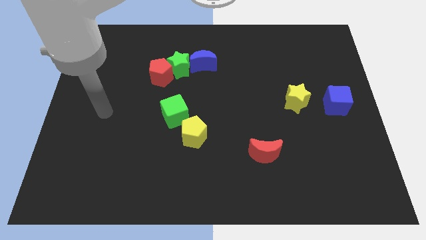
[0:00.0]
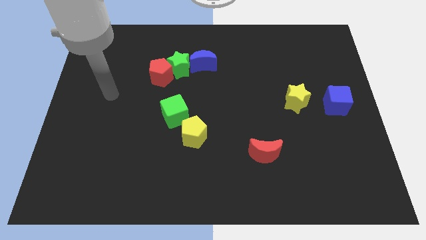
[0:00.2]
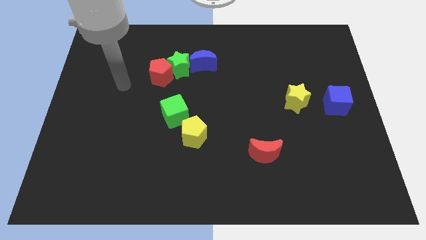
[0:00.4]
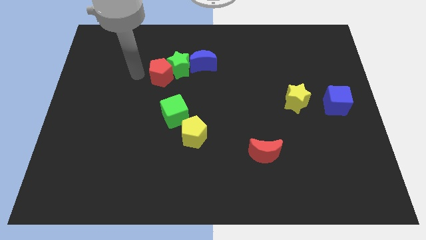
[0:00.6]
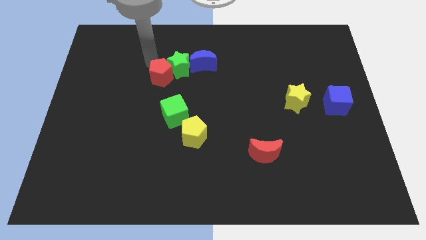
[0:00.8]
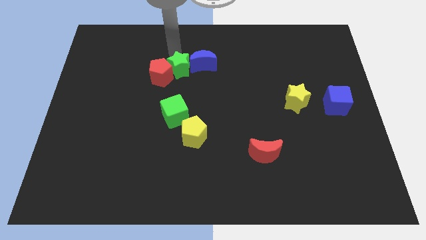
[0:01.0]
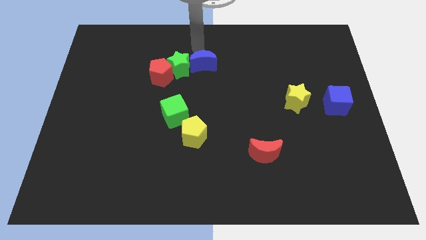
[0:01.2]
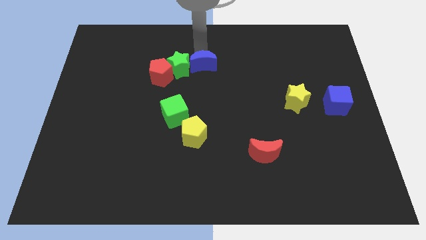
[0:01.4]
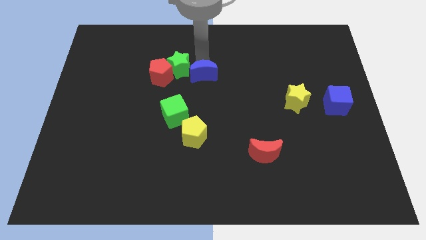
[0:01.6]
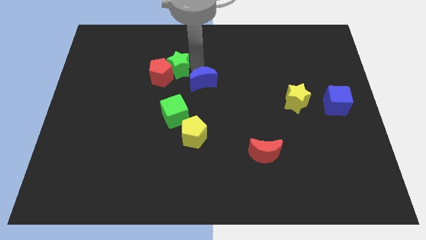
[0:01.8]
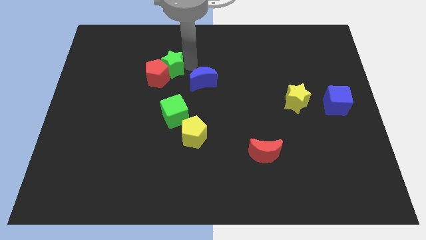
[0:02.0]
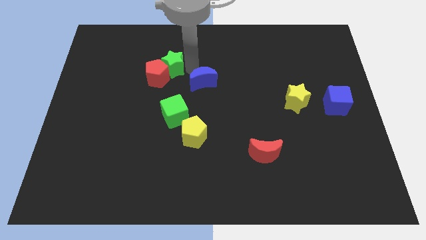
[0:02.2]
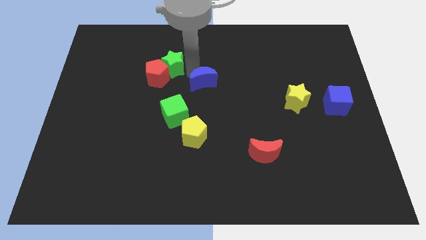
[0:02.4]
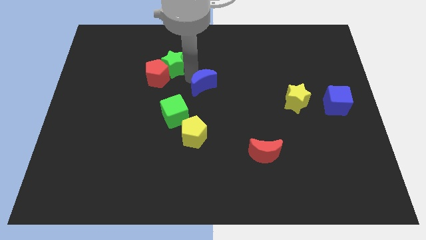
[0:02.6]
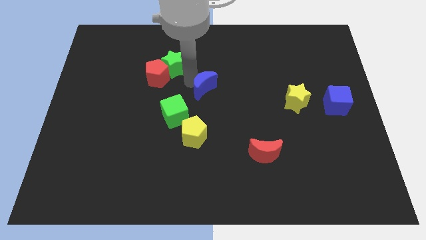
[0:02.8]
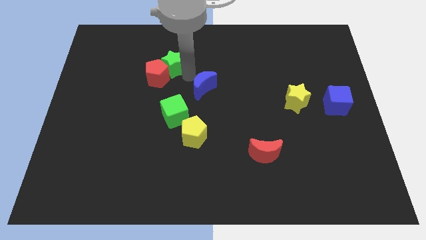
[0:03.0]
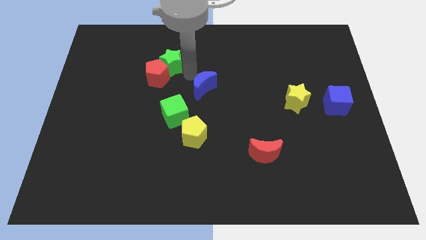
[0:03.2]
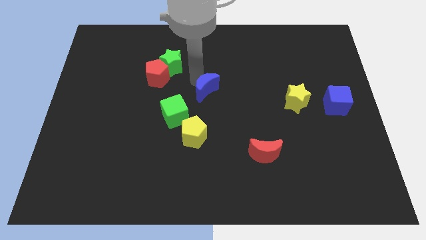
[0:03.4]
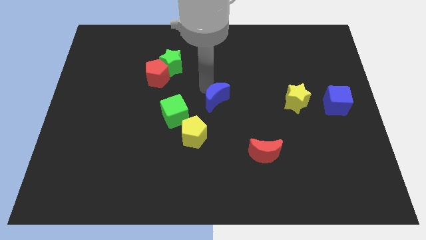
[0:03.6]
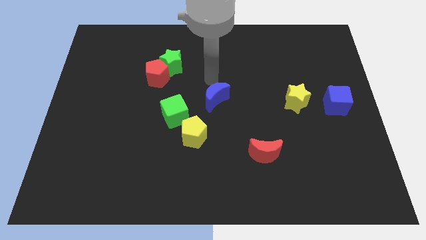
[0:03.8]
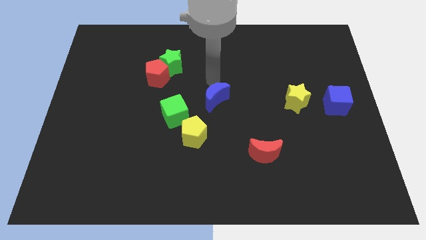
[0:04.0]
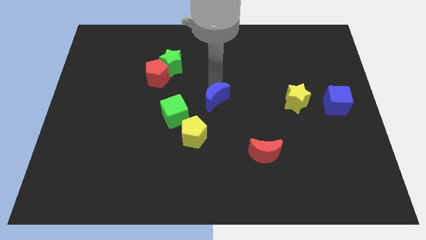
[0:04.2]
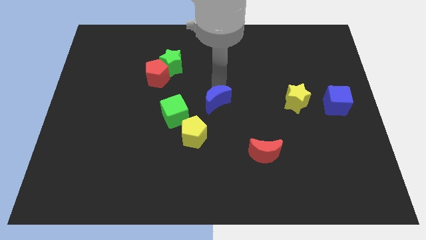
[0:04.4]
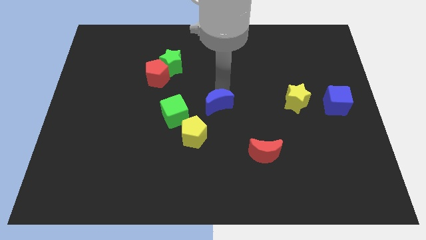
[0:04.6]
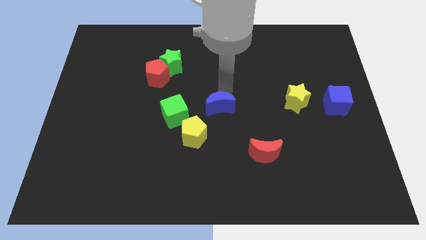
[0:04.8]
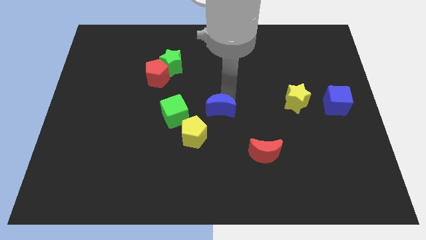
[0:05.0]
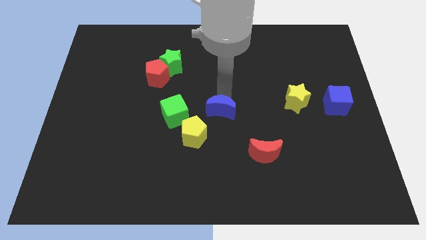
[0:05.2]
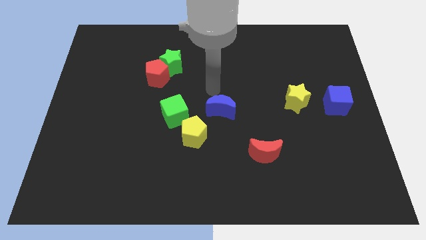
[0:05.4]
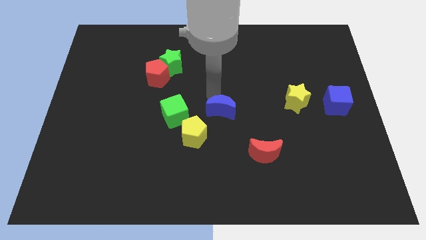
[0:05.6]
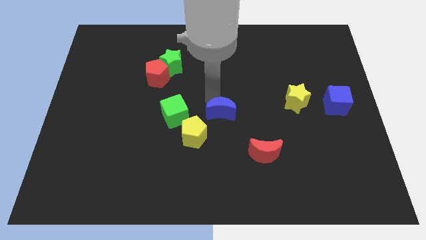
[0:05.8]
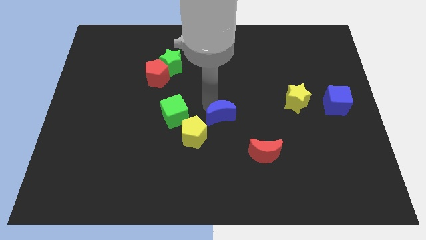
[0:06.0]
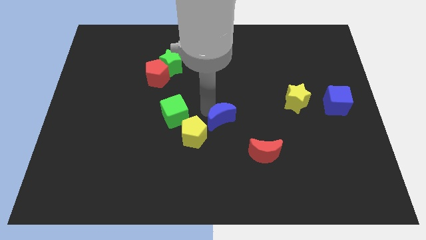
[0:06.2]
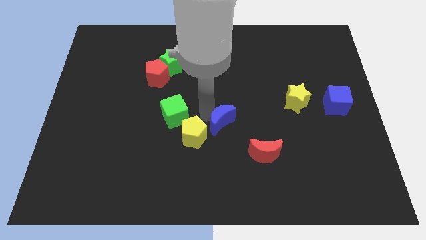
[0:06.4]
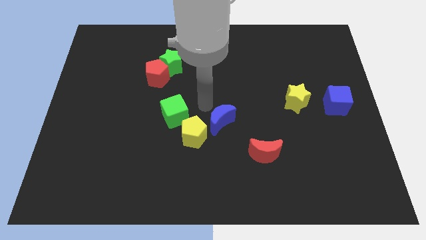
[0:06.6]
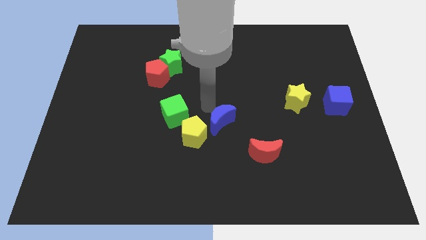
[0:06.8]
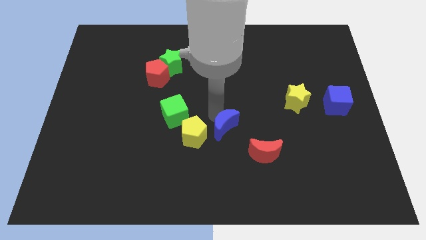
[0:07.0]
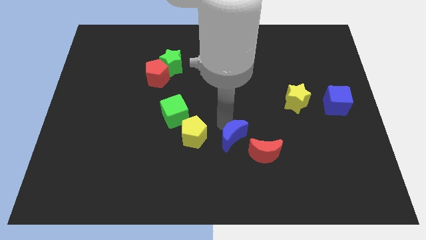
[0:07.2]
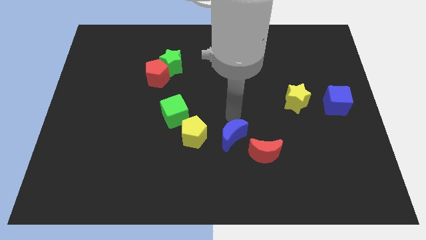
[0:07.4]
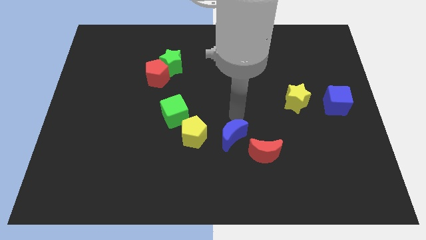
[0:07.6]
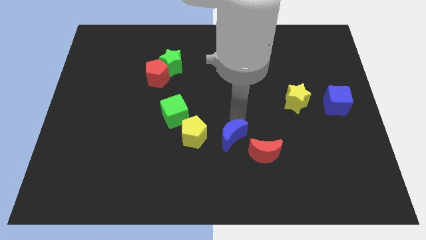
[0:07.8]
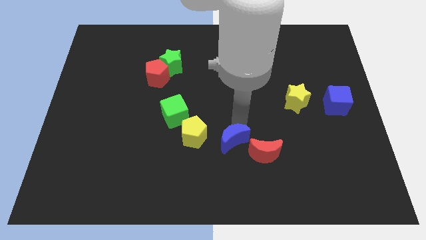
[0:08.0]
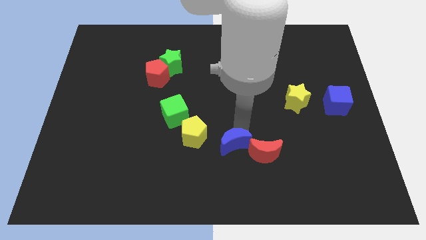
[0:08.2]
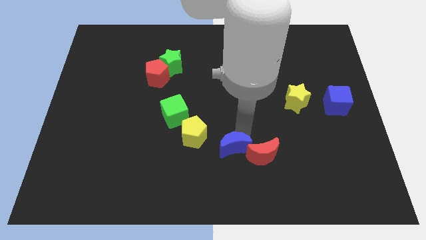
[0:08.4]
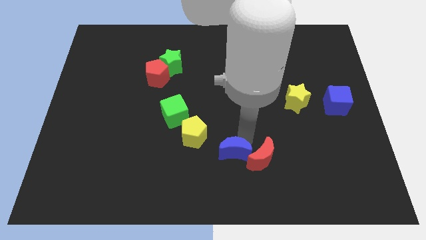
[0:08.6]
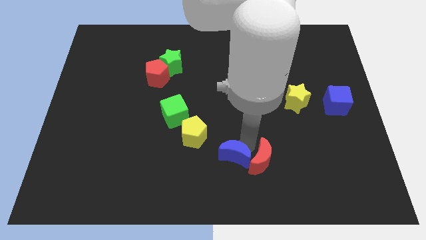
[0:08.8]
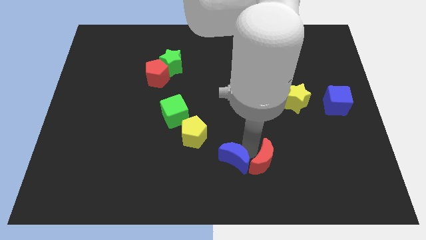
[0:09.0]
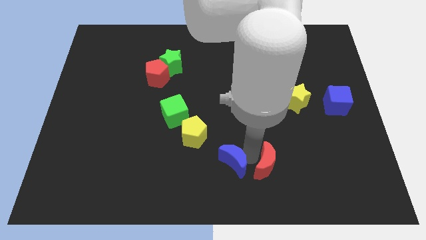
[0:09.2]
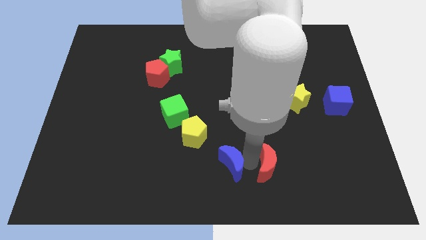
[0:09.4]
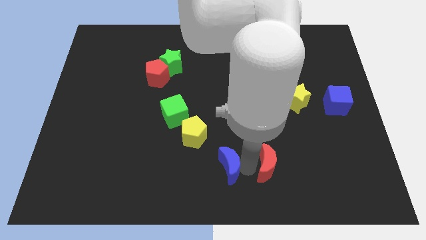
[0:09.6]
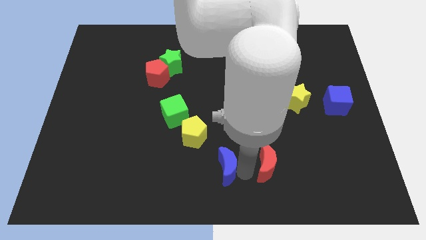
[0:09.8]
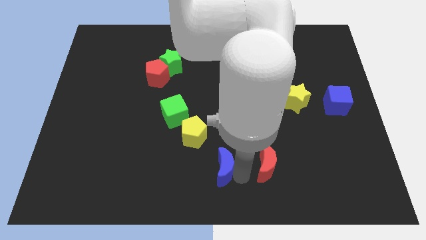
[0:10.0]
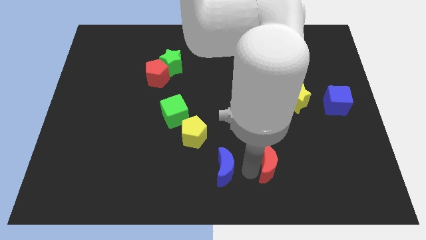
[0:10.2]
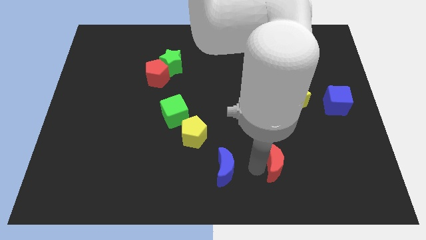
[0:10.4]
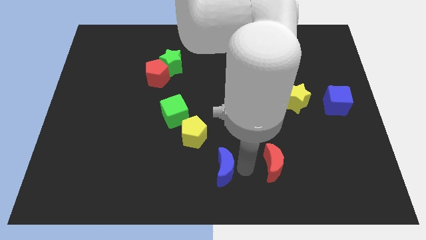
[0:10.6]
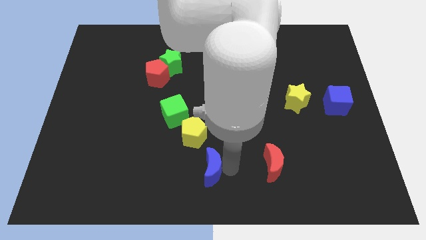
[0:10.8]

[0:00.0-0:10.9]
push the blue moon below the yellow pentagon

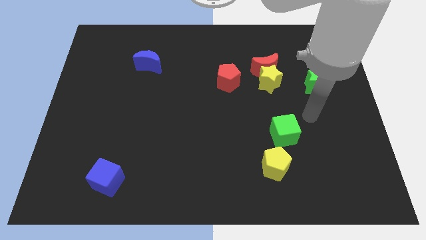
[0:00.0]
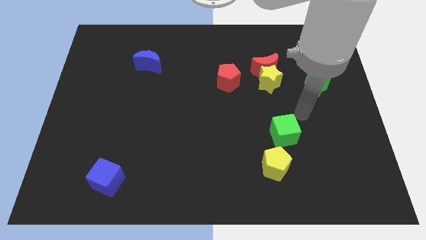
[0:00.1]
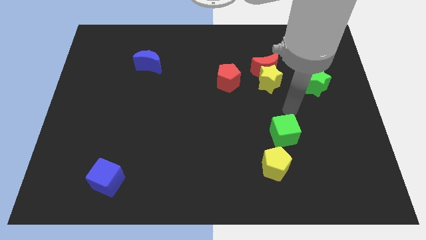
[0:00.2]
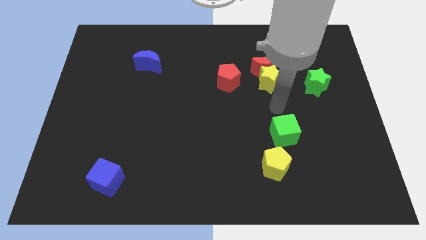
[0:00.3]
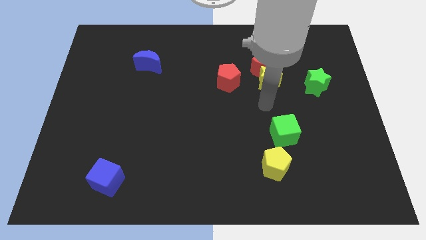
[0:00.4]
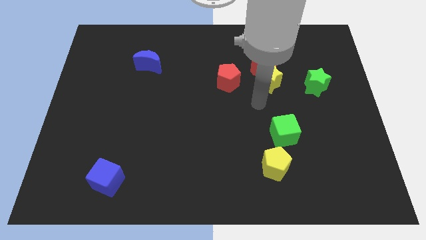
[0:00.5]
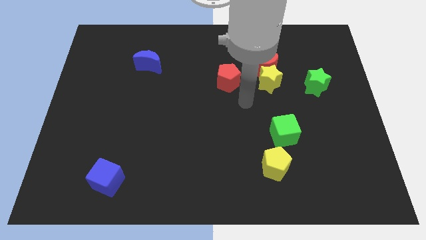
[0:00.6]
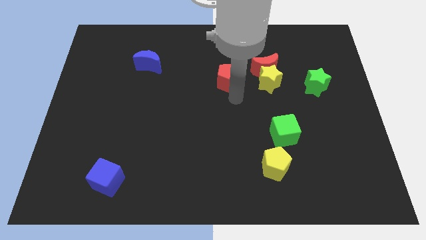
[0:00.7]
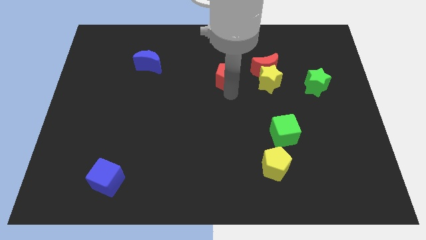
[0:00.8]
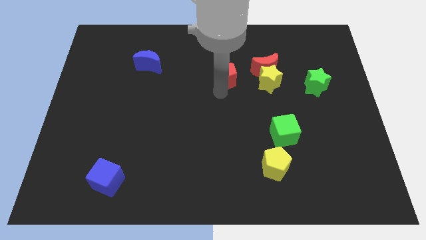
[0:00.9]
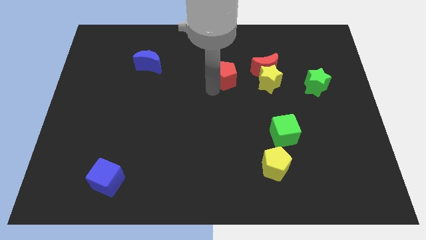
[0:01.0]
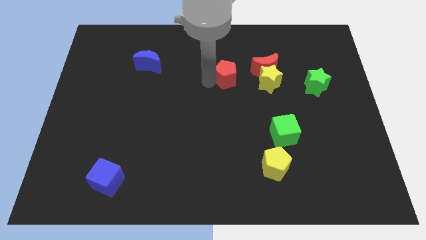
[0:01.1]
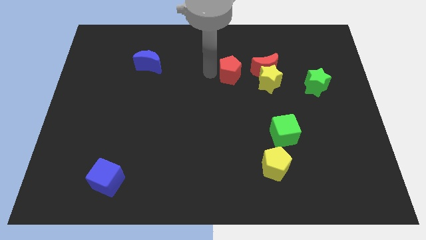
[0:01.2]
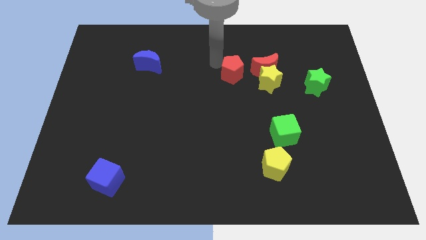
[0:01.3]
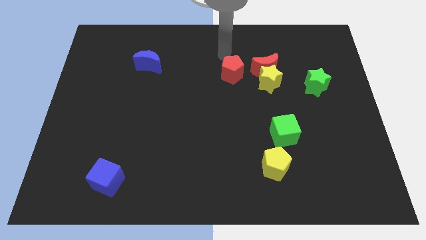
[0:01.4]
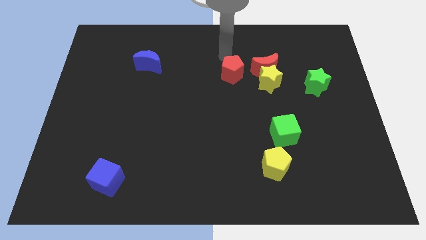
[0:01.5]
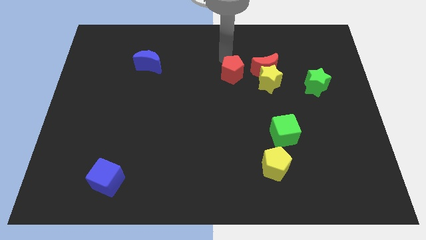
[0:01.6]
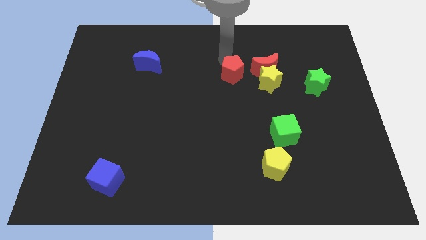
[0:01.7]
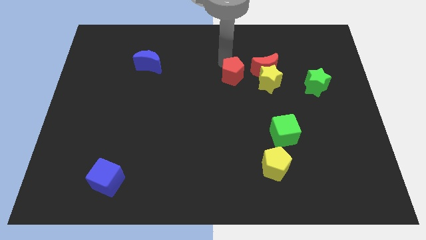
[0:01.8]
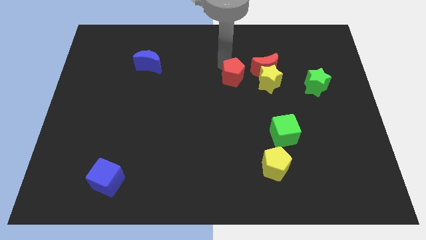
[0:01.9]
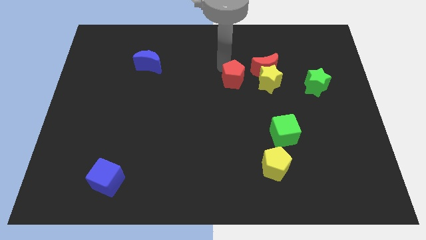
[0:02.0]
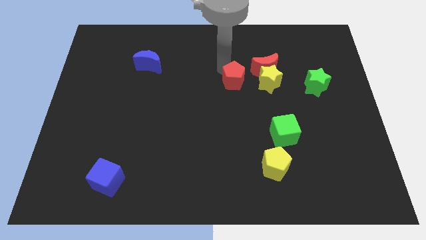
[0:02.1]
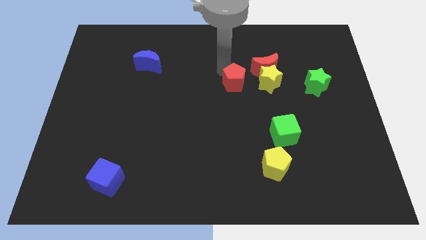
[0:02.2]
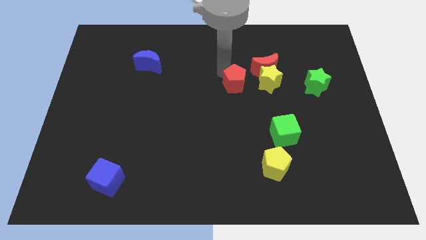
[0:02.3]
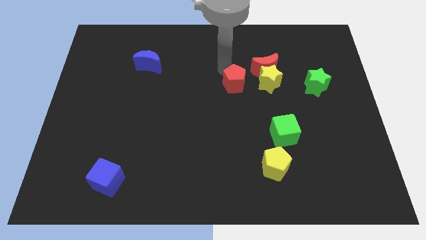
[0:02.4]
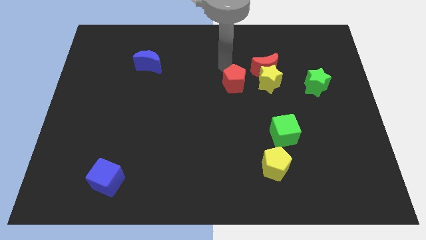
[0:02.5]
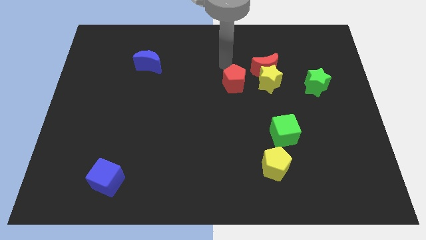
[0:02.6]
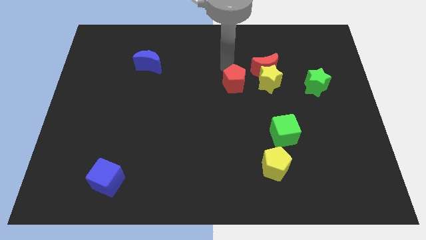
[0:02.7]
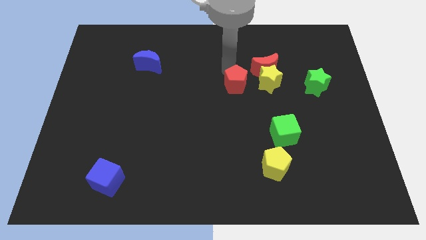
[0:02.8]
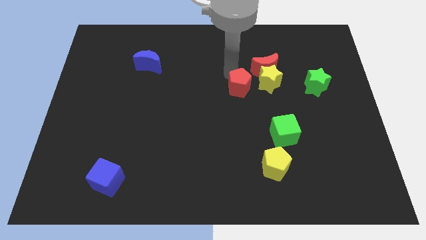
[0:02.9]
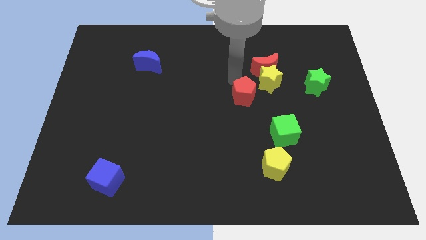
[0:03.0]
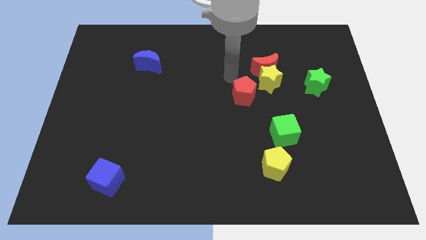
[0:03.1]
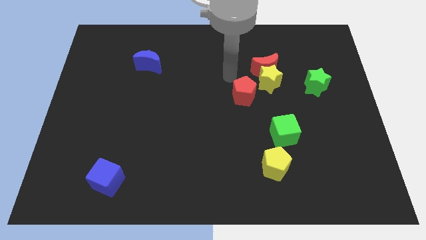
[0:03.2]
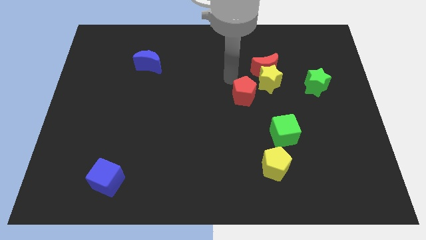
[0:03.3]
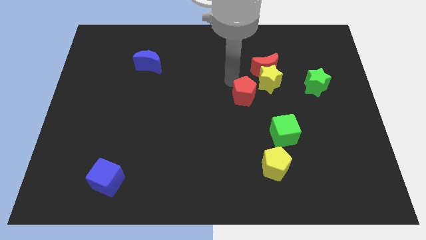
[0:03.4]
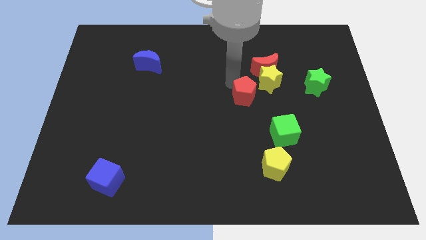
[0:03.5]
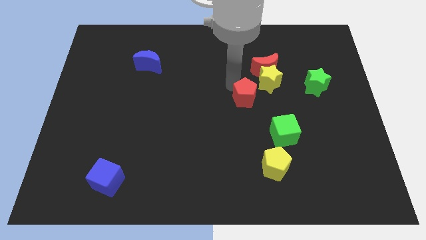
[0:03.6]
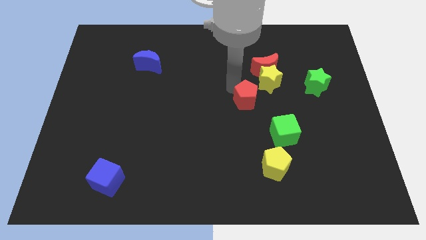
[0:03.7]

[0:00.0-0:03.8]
move the red pentagon to the top left of the green cube
